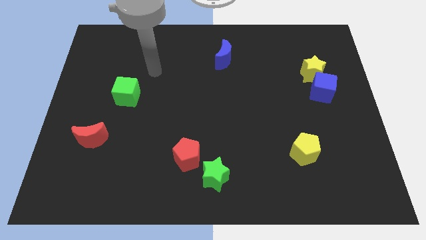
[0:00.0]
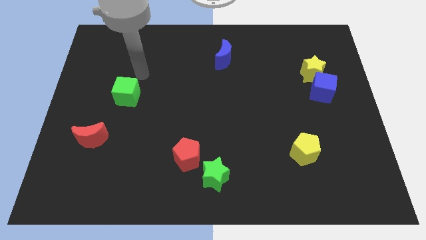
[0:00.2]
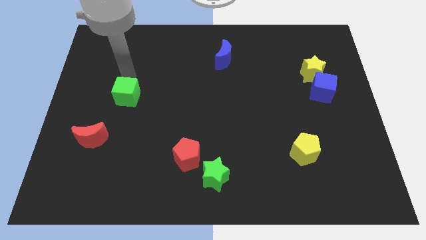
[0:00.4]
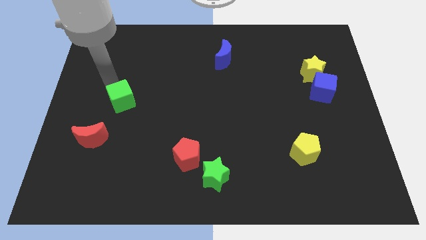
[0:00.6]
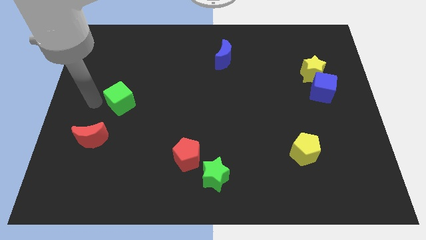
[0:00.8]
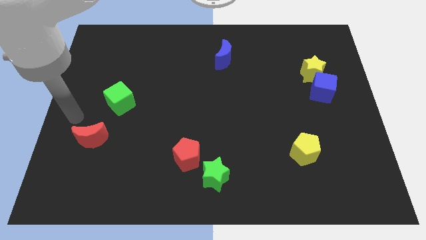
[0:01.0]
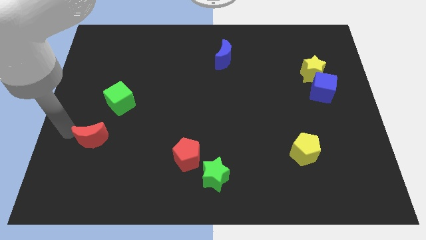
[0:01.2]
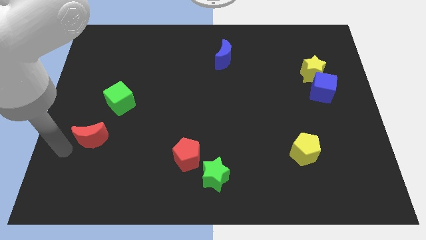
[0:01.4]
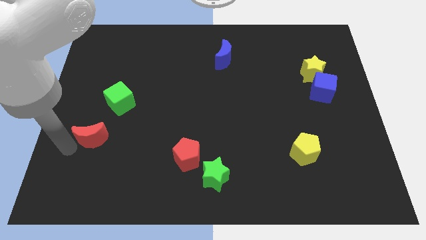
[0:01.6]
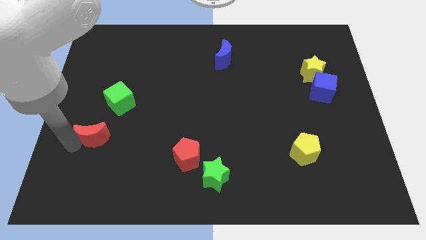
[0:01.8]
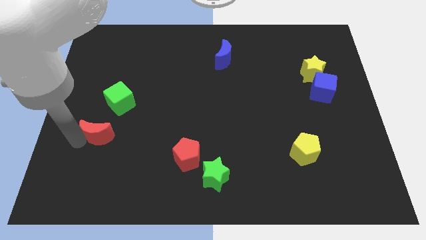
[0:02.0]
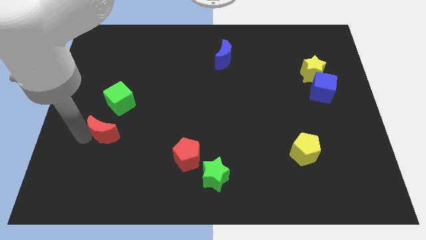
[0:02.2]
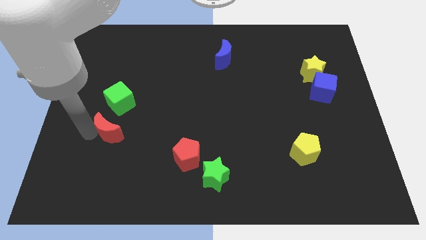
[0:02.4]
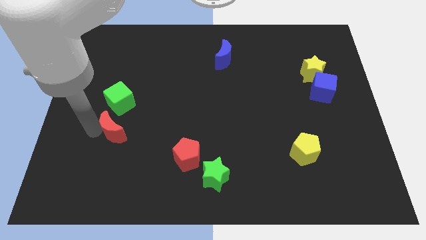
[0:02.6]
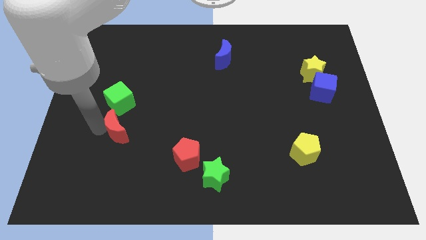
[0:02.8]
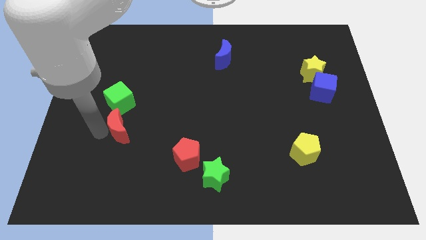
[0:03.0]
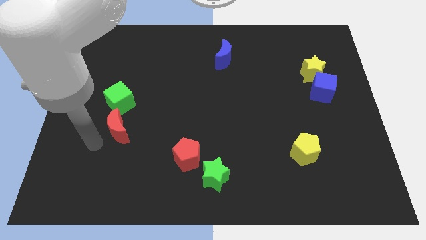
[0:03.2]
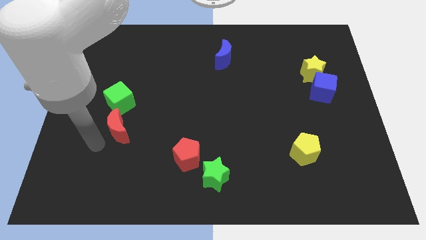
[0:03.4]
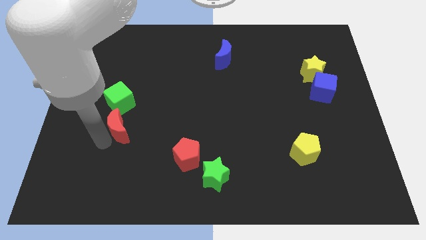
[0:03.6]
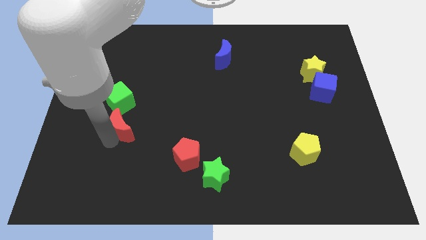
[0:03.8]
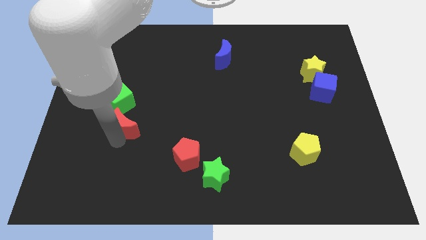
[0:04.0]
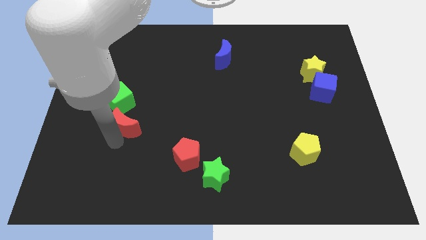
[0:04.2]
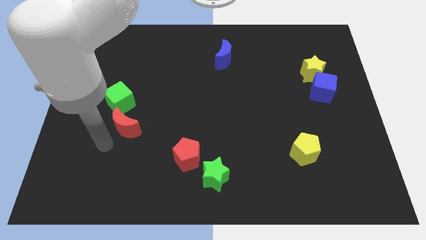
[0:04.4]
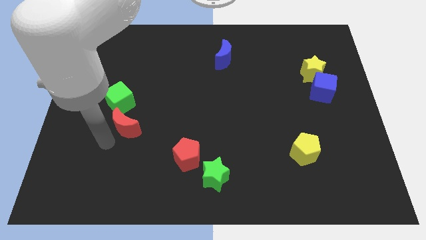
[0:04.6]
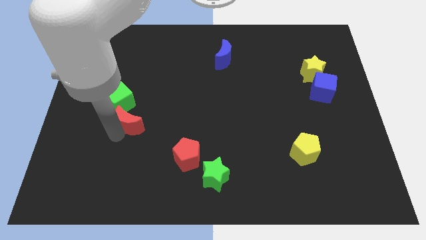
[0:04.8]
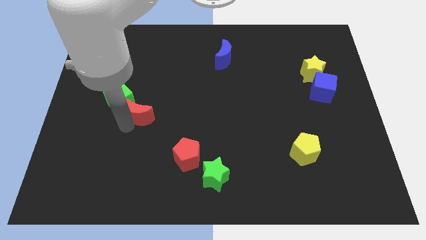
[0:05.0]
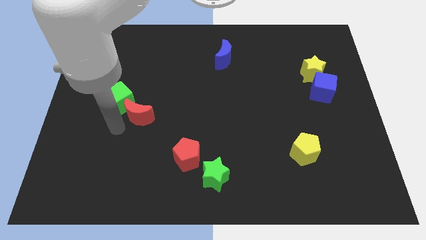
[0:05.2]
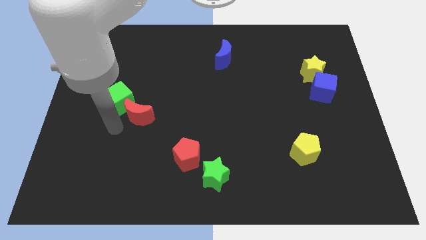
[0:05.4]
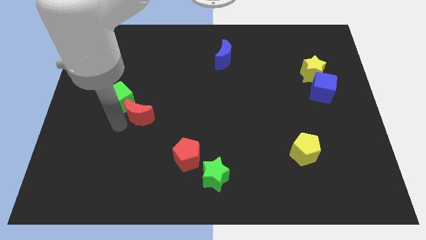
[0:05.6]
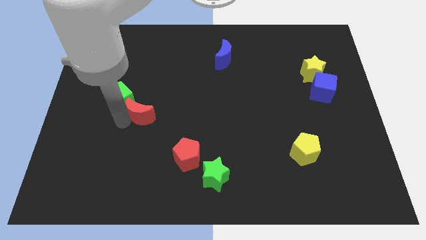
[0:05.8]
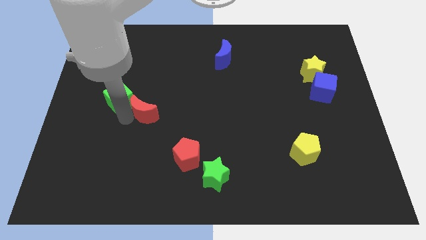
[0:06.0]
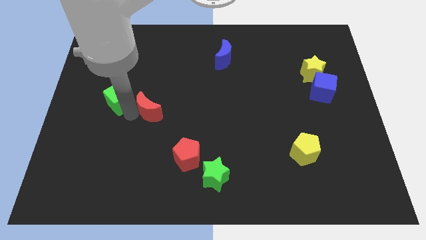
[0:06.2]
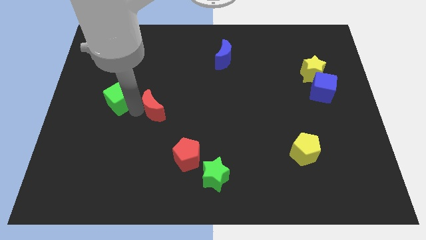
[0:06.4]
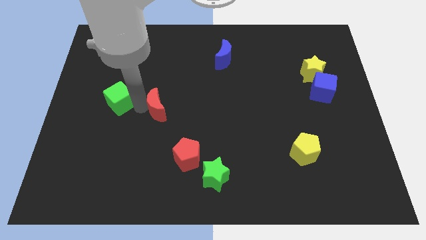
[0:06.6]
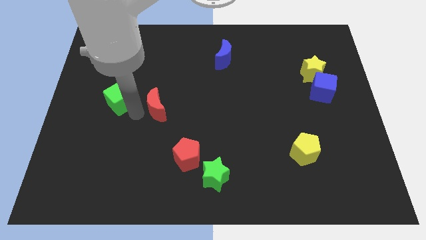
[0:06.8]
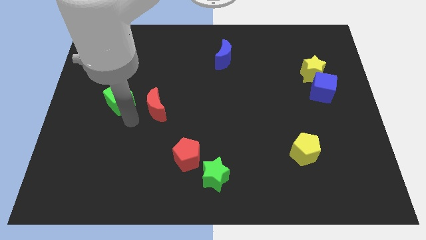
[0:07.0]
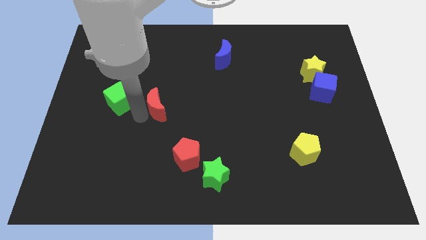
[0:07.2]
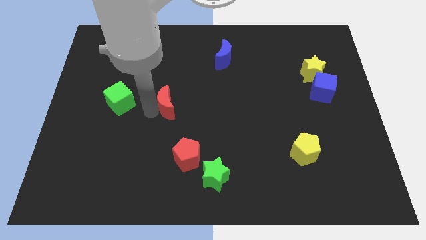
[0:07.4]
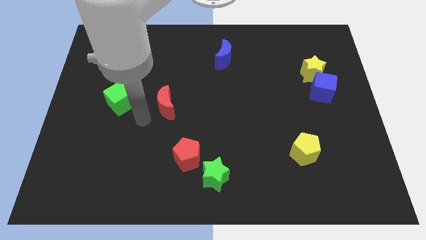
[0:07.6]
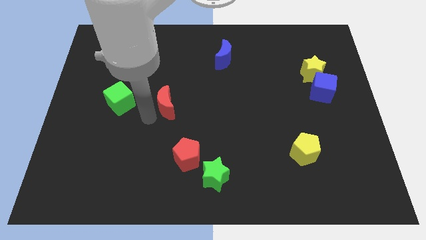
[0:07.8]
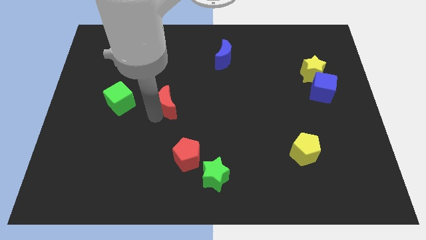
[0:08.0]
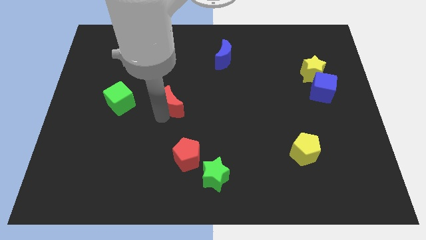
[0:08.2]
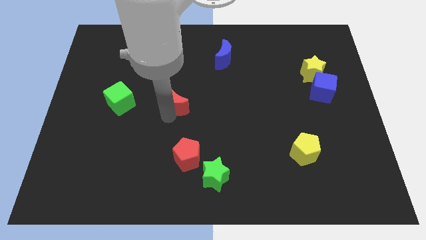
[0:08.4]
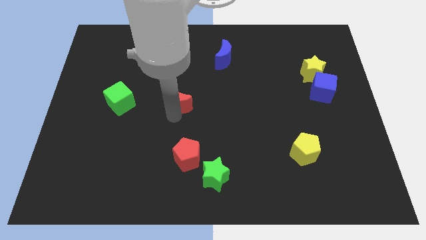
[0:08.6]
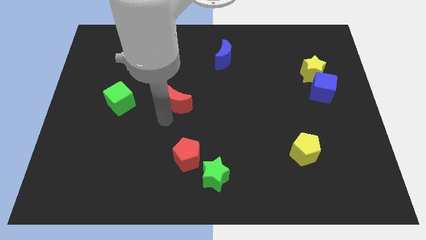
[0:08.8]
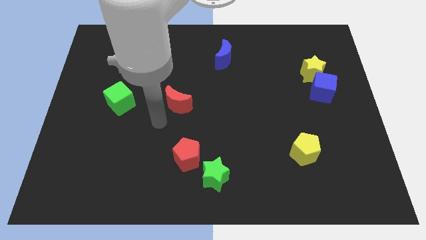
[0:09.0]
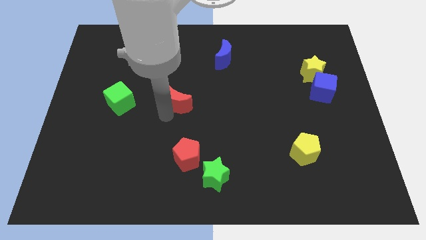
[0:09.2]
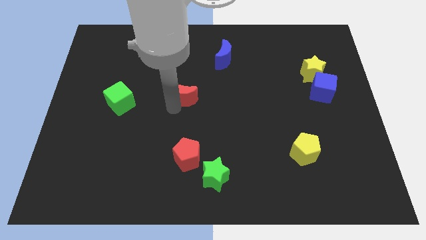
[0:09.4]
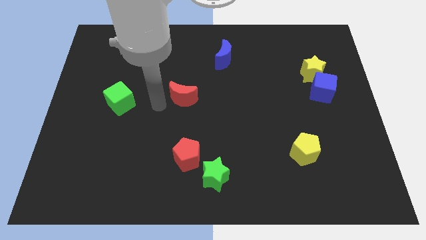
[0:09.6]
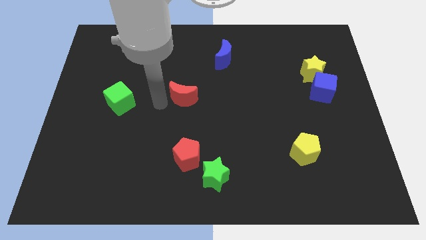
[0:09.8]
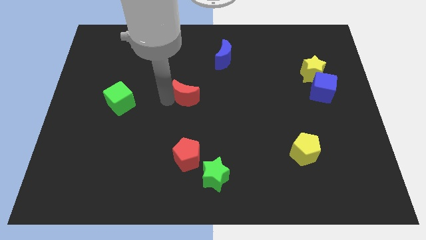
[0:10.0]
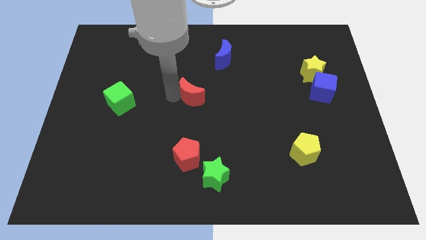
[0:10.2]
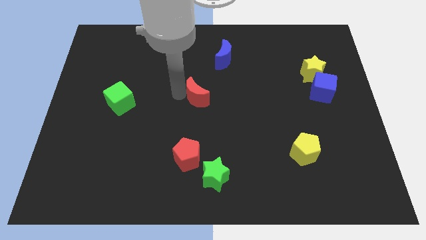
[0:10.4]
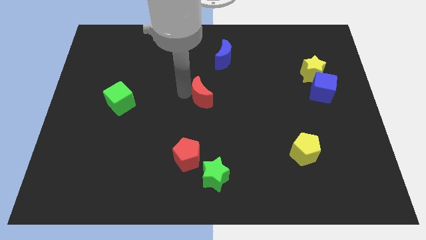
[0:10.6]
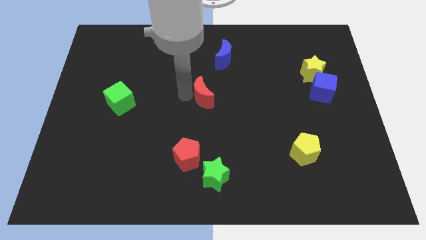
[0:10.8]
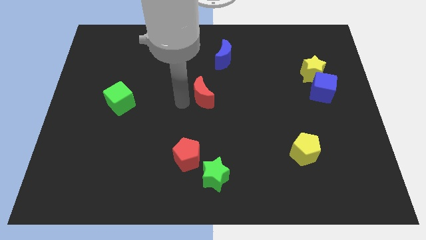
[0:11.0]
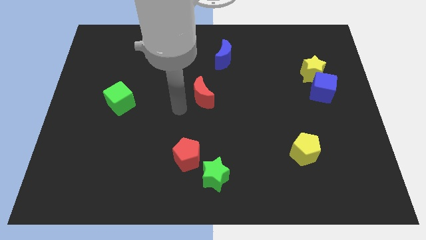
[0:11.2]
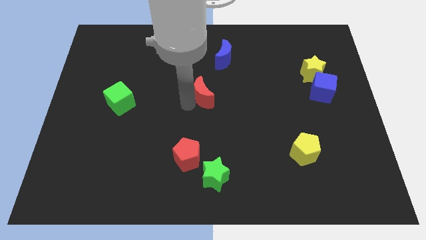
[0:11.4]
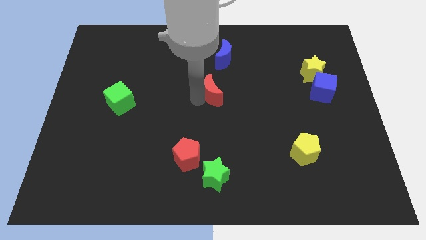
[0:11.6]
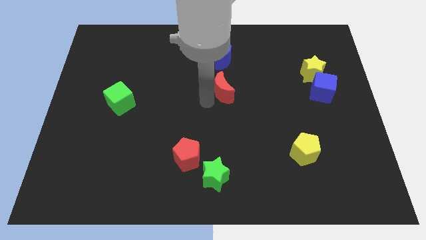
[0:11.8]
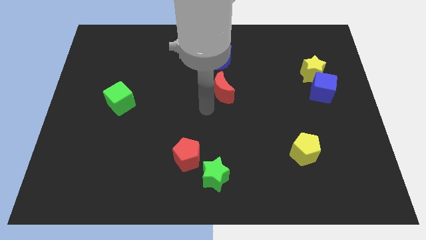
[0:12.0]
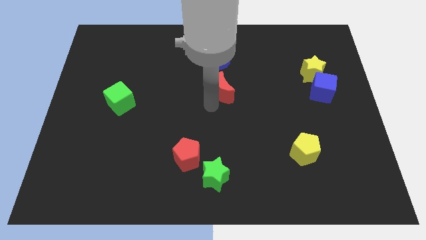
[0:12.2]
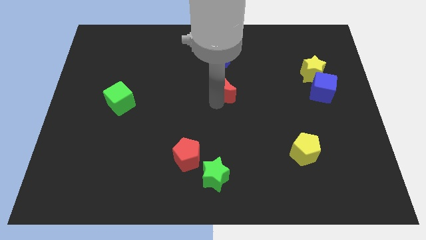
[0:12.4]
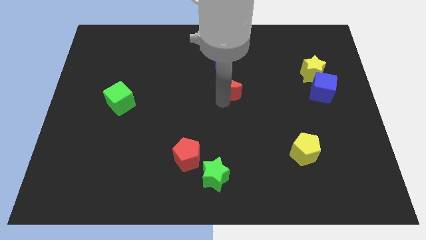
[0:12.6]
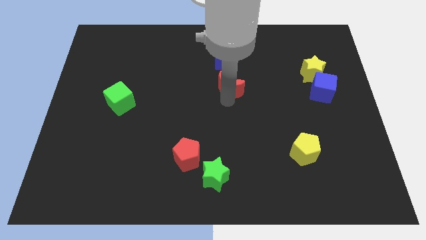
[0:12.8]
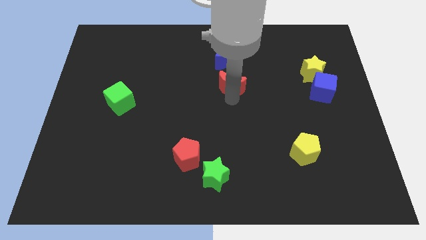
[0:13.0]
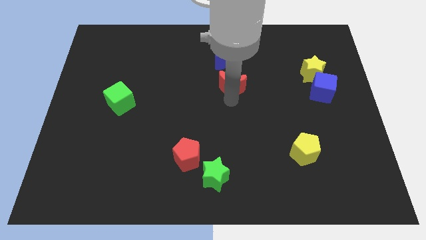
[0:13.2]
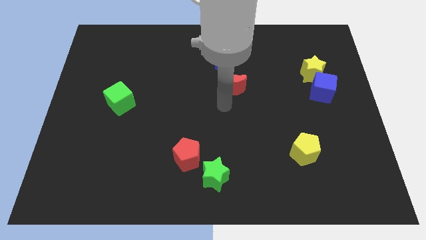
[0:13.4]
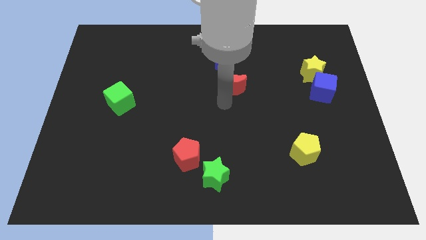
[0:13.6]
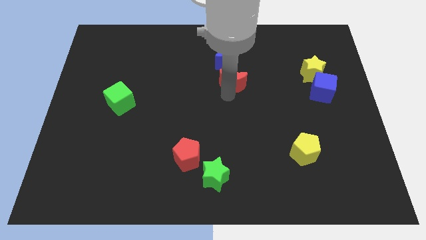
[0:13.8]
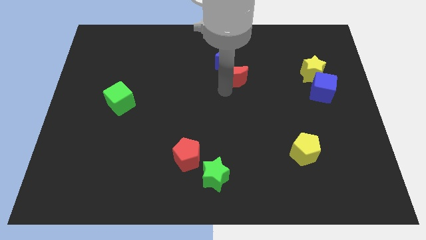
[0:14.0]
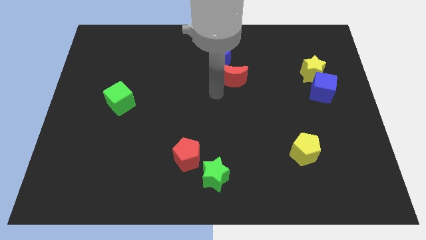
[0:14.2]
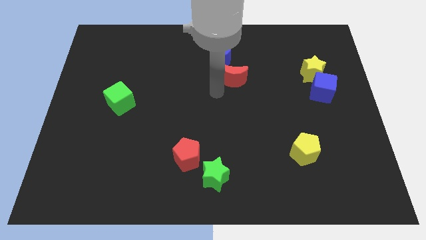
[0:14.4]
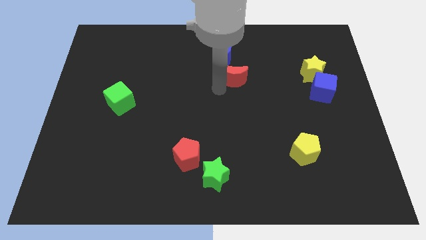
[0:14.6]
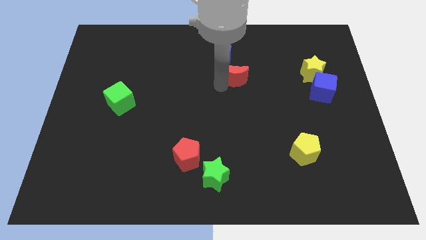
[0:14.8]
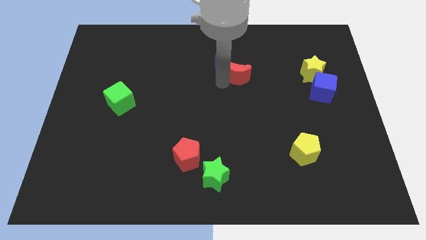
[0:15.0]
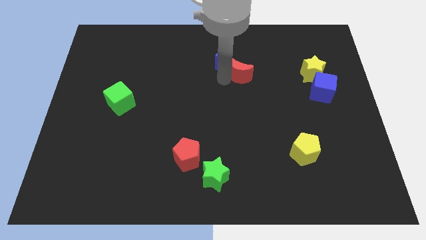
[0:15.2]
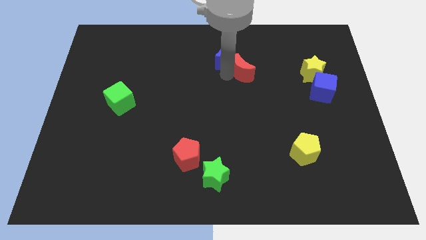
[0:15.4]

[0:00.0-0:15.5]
push the red moon to the right of the blue moon
